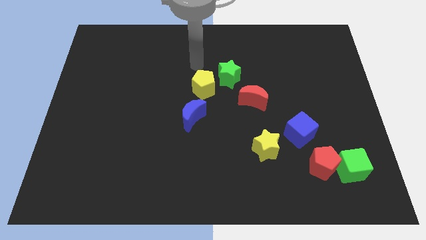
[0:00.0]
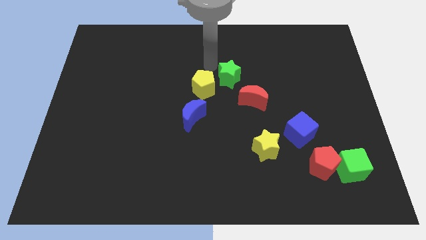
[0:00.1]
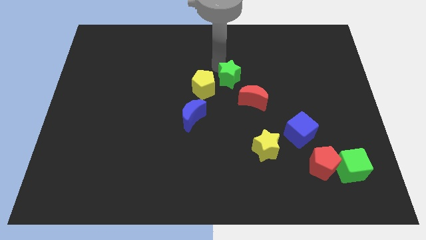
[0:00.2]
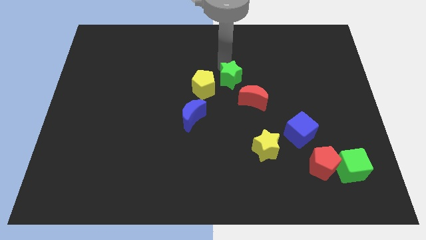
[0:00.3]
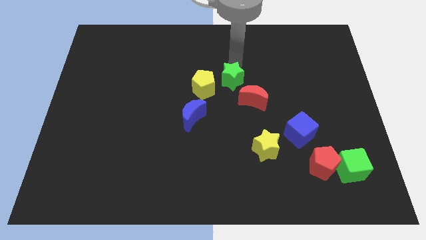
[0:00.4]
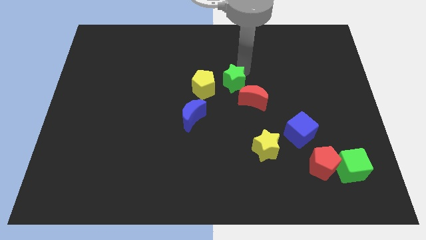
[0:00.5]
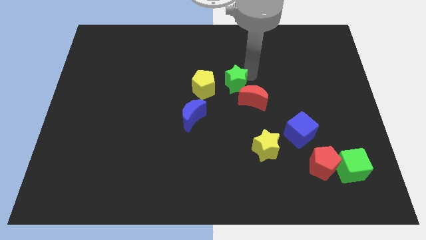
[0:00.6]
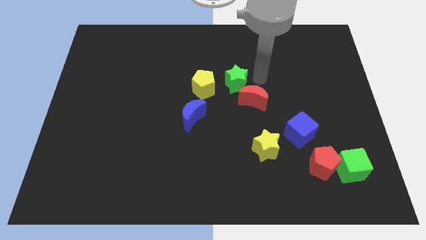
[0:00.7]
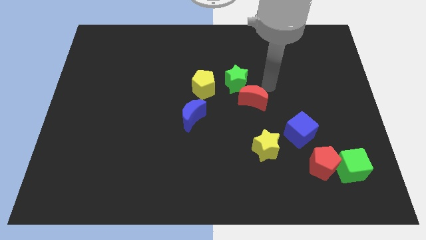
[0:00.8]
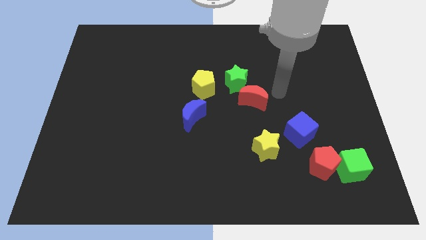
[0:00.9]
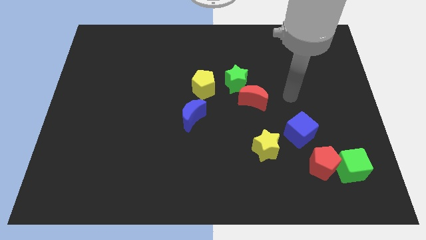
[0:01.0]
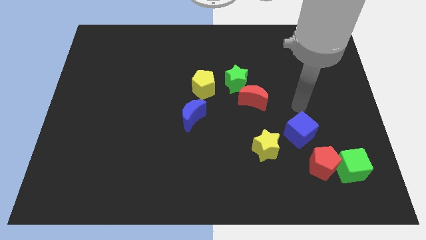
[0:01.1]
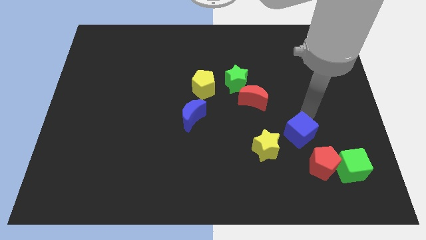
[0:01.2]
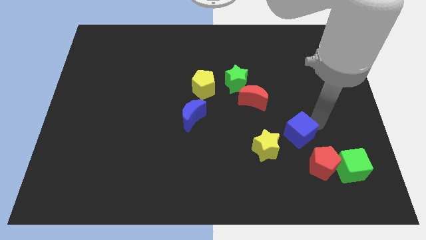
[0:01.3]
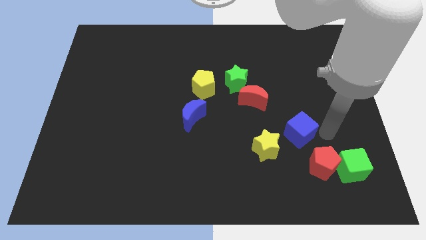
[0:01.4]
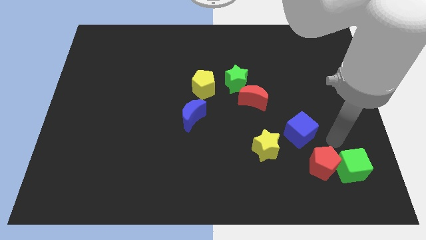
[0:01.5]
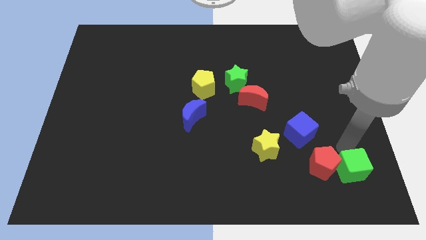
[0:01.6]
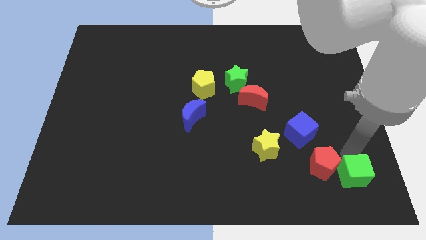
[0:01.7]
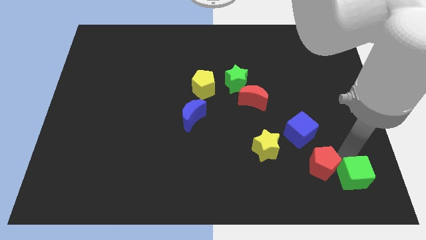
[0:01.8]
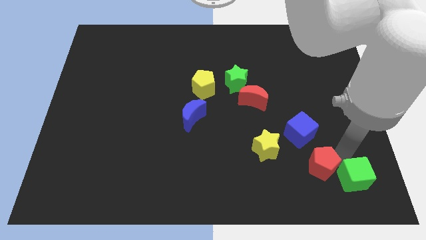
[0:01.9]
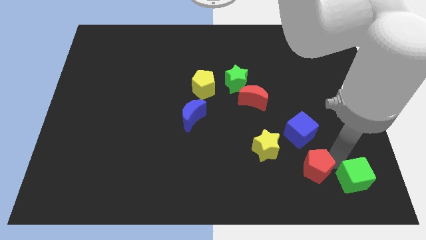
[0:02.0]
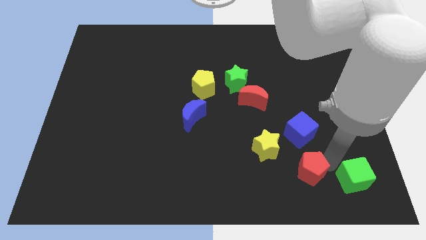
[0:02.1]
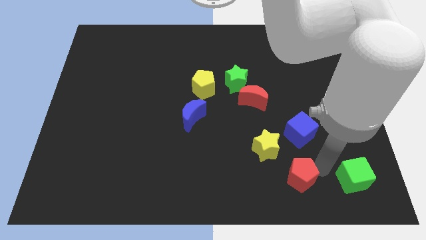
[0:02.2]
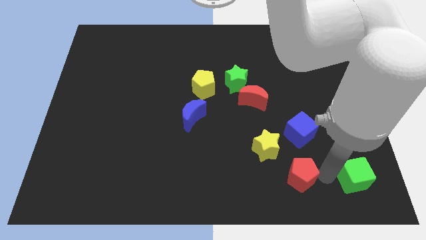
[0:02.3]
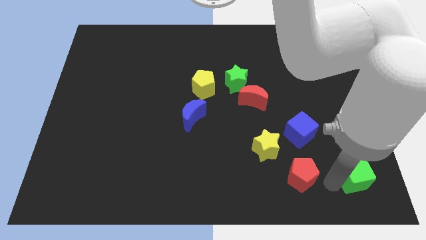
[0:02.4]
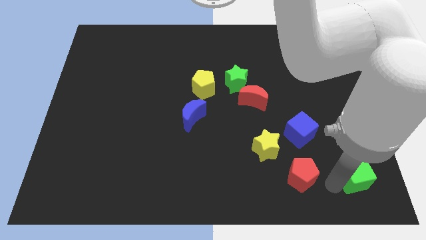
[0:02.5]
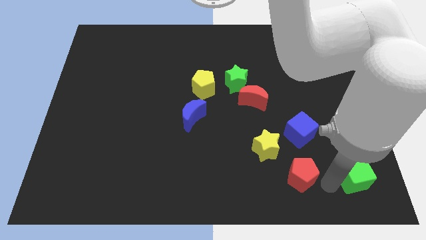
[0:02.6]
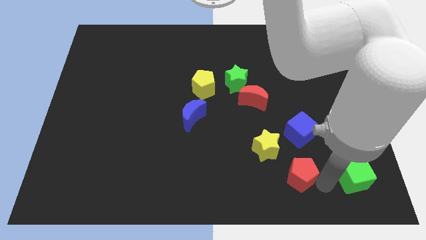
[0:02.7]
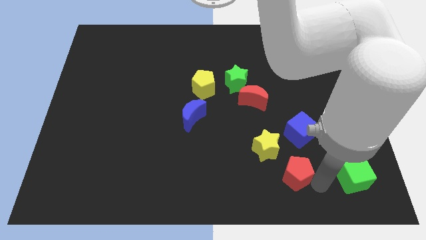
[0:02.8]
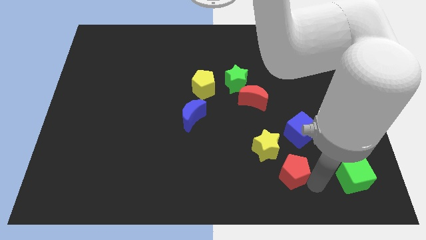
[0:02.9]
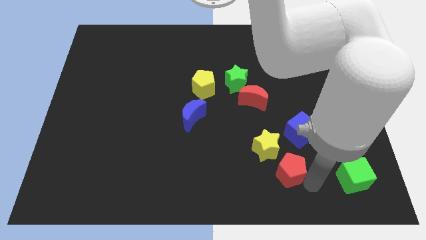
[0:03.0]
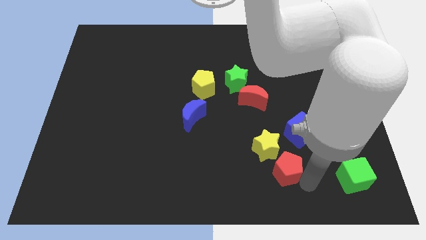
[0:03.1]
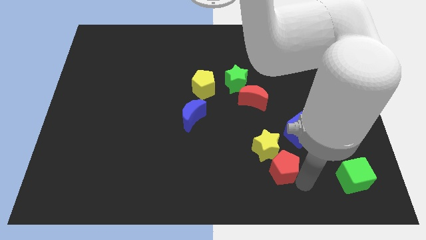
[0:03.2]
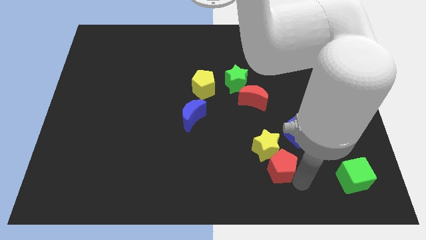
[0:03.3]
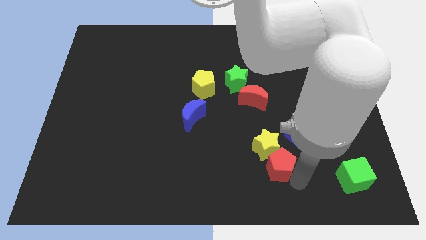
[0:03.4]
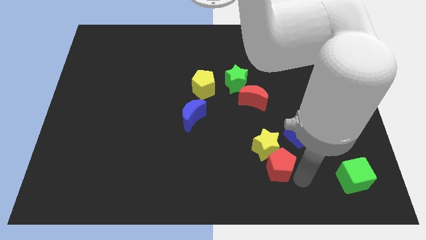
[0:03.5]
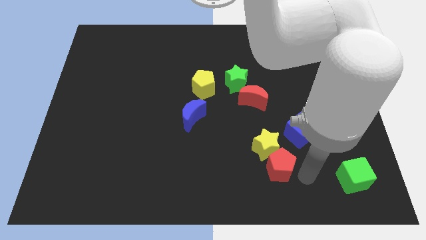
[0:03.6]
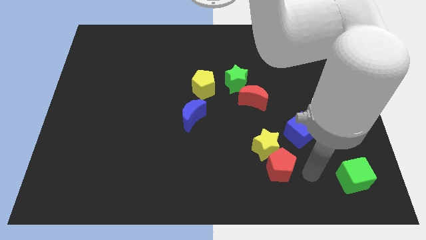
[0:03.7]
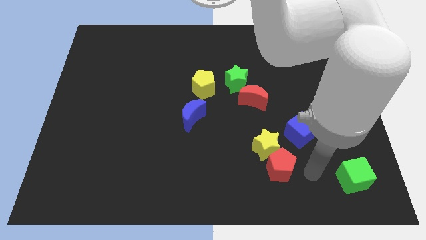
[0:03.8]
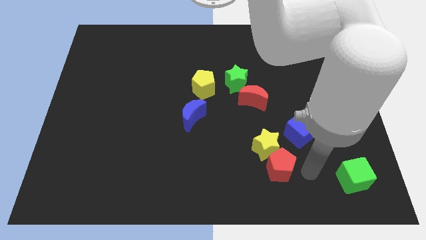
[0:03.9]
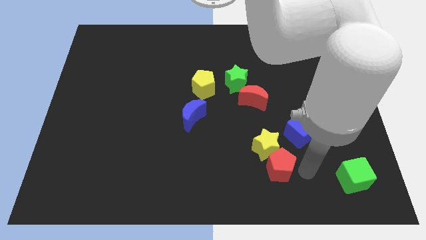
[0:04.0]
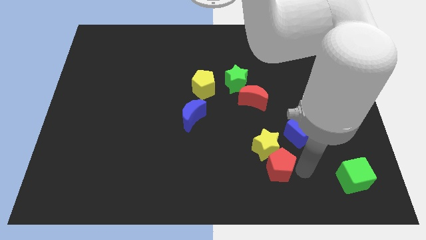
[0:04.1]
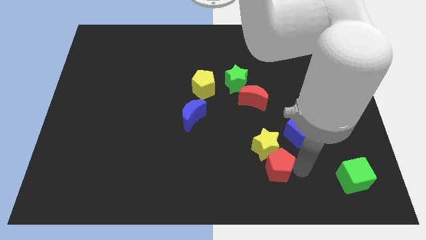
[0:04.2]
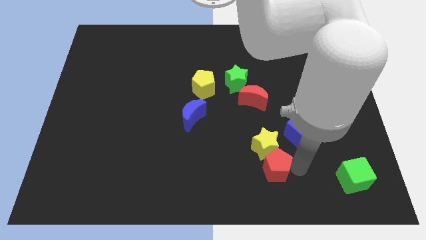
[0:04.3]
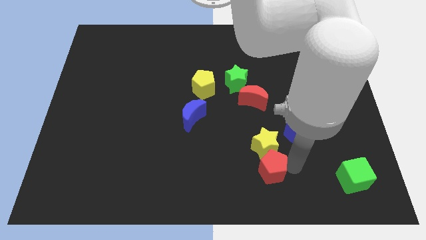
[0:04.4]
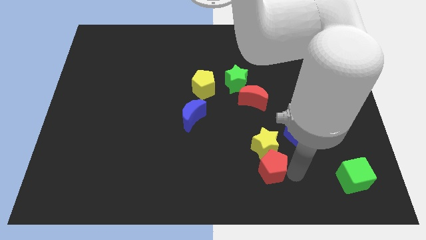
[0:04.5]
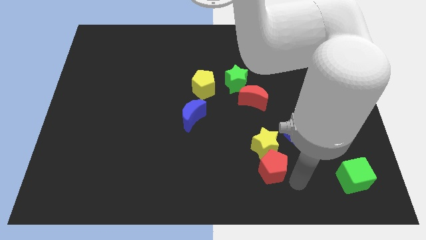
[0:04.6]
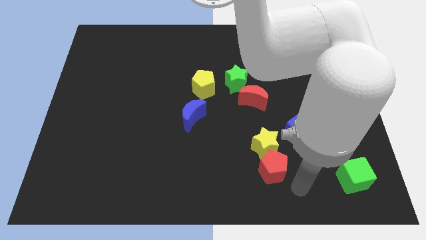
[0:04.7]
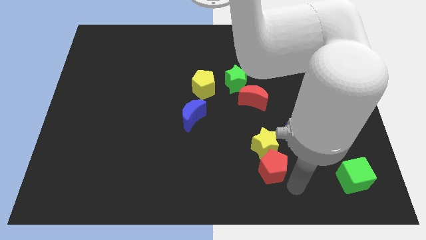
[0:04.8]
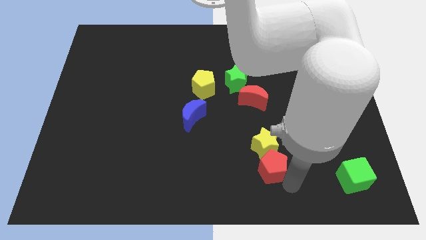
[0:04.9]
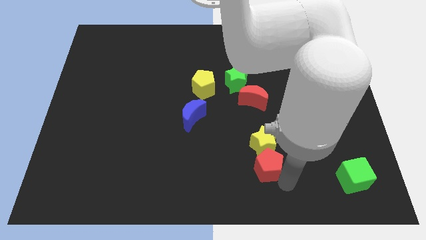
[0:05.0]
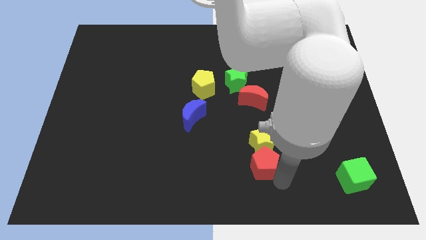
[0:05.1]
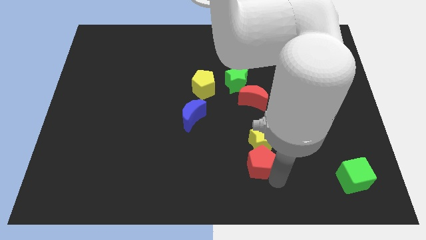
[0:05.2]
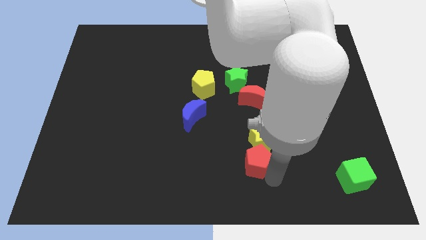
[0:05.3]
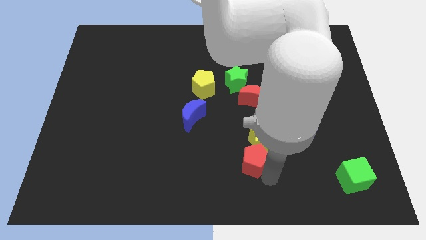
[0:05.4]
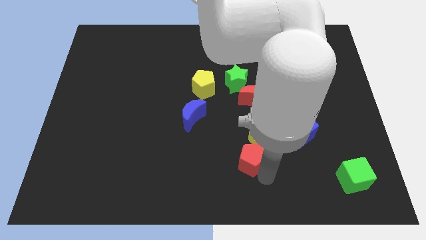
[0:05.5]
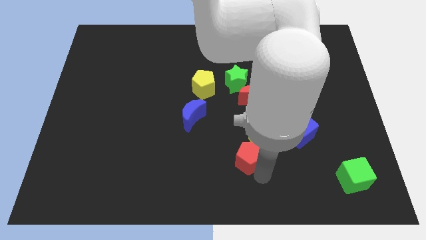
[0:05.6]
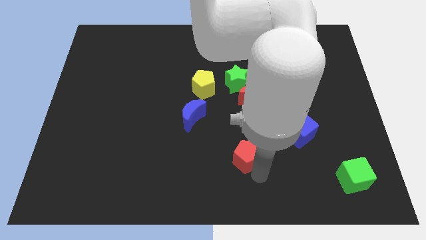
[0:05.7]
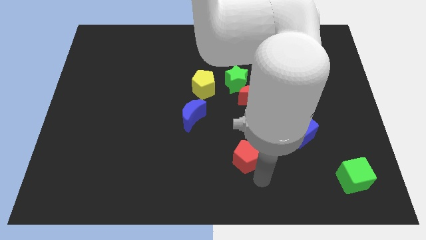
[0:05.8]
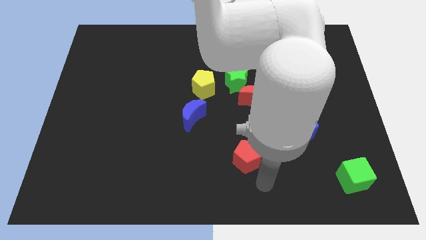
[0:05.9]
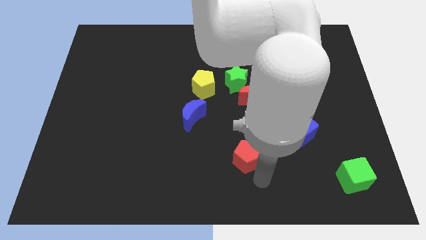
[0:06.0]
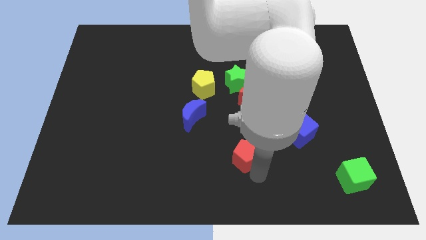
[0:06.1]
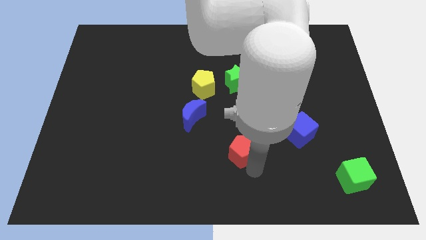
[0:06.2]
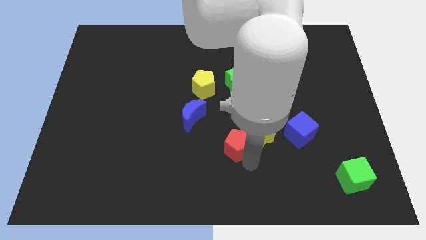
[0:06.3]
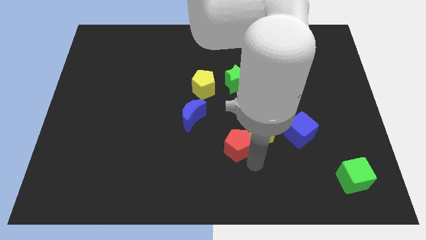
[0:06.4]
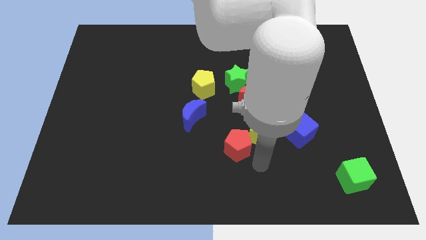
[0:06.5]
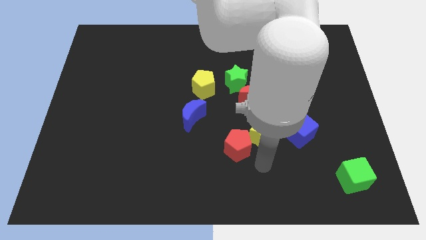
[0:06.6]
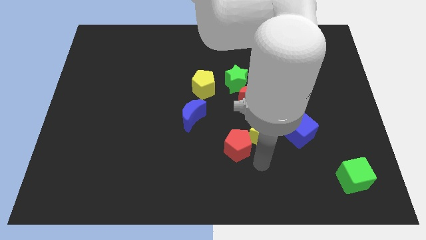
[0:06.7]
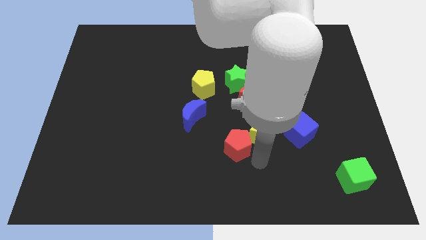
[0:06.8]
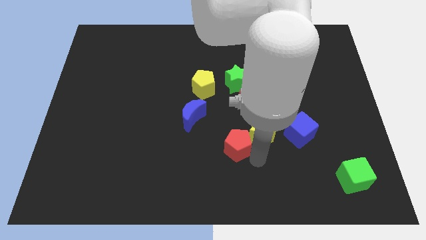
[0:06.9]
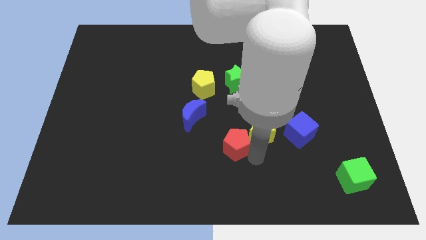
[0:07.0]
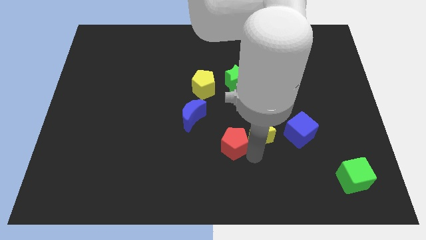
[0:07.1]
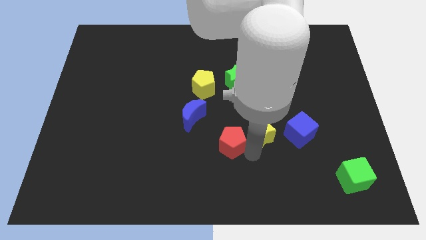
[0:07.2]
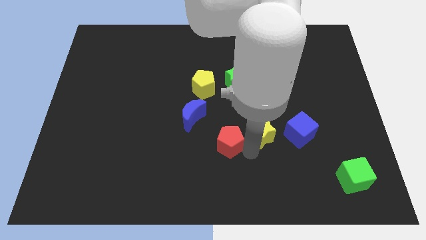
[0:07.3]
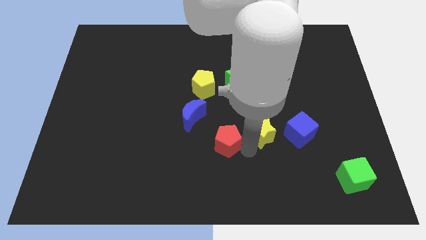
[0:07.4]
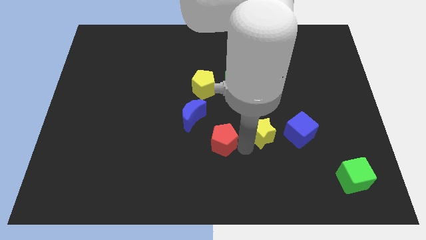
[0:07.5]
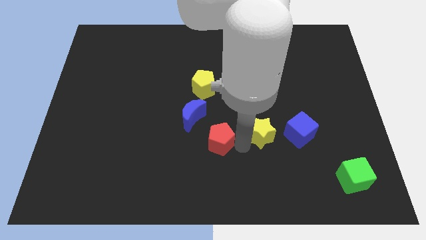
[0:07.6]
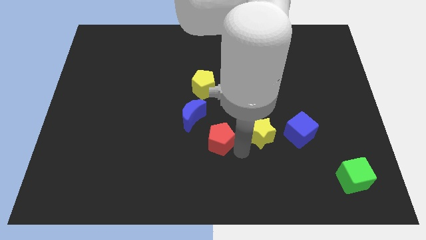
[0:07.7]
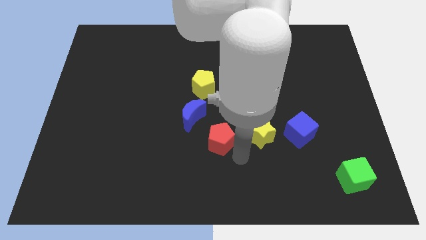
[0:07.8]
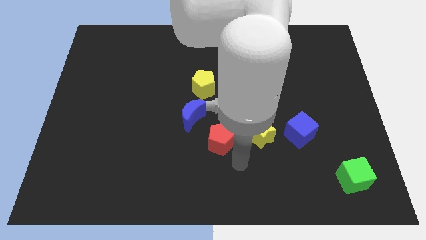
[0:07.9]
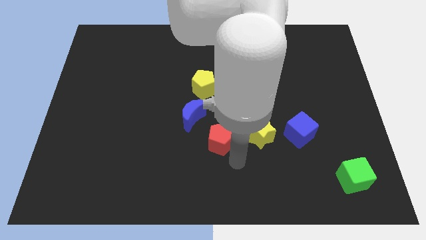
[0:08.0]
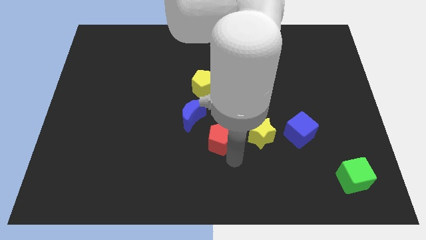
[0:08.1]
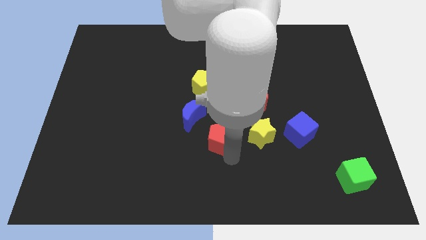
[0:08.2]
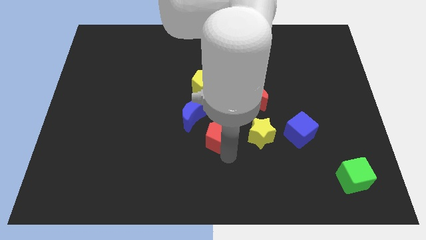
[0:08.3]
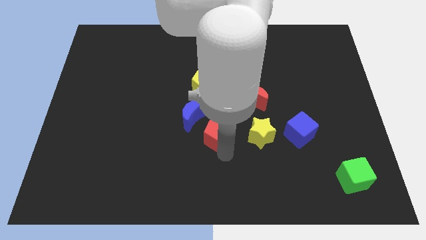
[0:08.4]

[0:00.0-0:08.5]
put the red pentagon to the bottom side of the yellow pentagon
